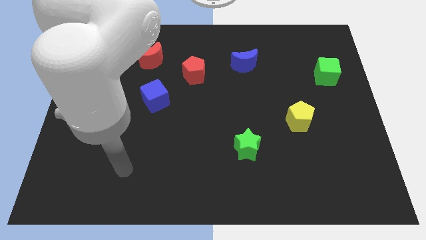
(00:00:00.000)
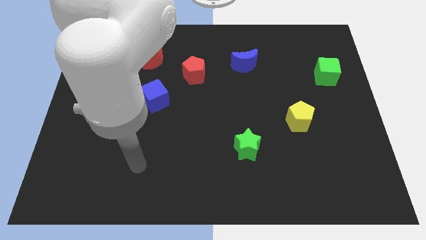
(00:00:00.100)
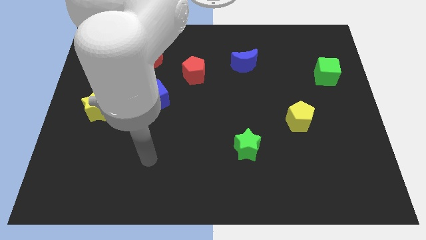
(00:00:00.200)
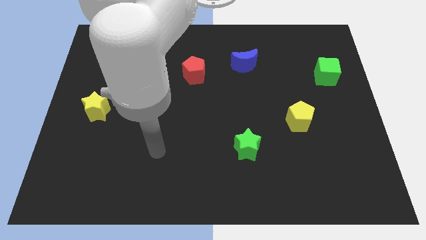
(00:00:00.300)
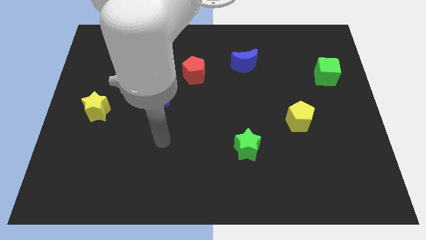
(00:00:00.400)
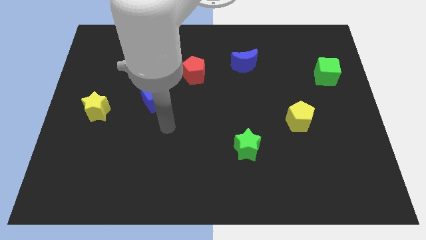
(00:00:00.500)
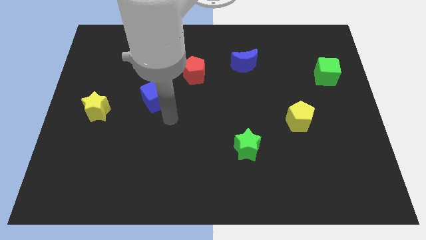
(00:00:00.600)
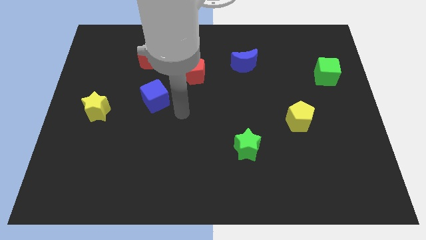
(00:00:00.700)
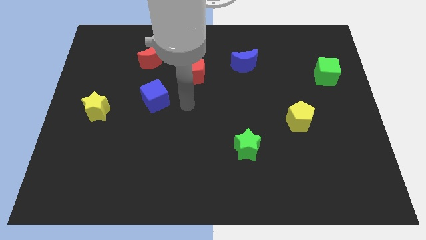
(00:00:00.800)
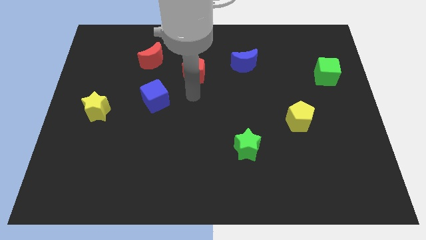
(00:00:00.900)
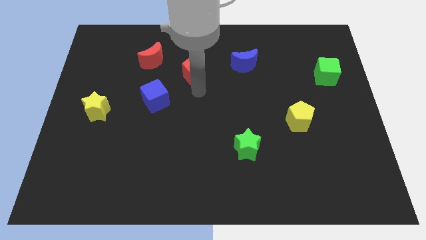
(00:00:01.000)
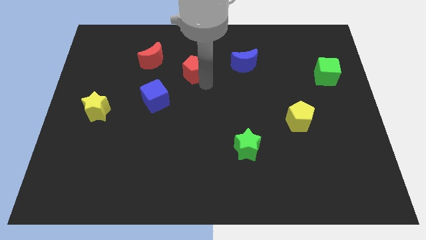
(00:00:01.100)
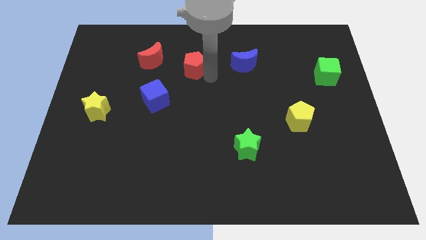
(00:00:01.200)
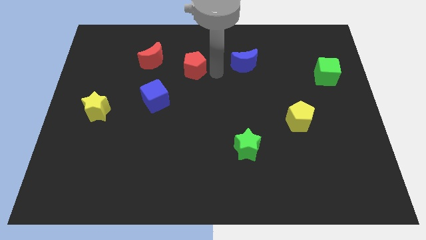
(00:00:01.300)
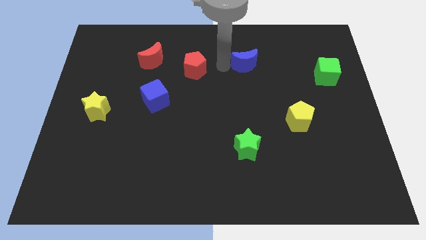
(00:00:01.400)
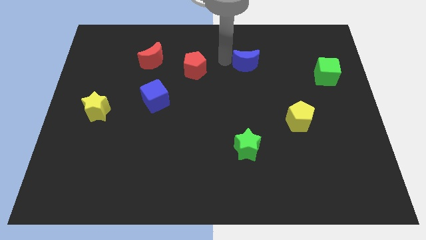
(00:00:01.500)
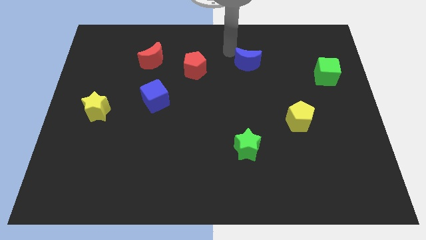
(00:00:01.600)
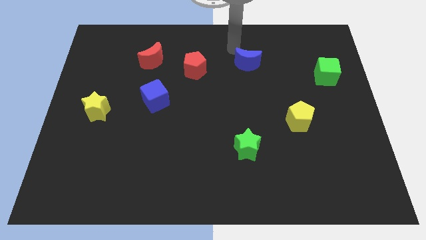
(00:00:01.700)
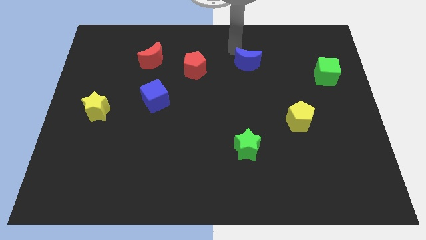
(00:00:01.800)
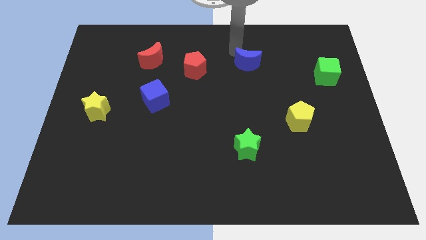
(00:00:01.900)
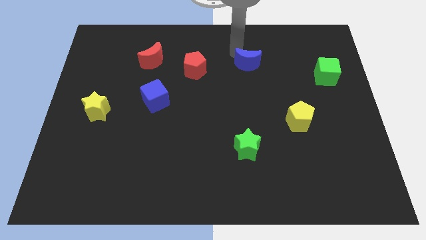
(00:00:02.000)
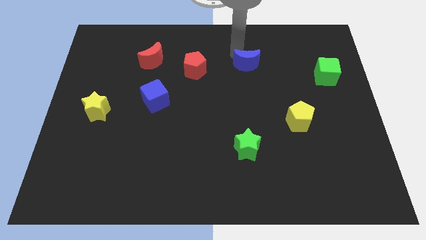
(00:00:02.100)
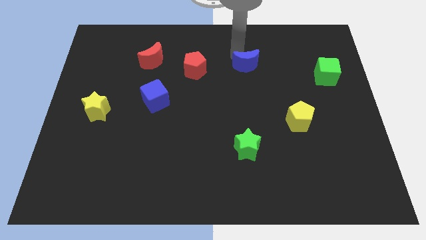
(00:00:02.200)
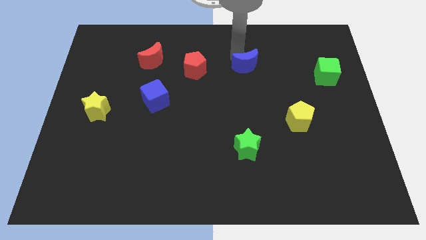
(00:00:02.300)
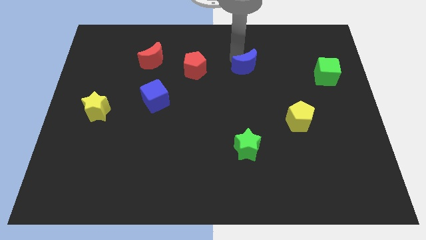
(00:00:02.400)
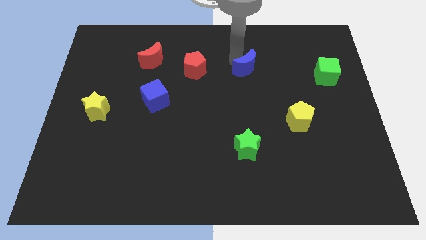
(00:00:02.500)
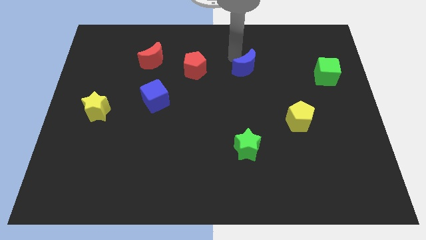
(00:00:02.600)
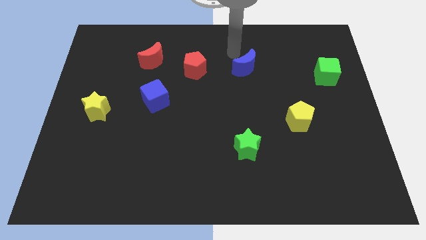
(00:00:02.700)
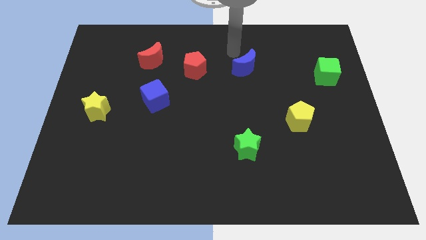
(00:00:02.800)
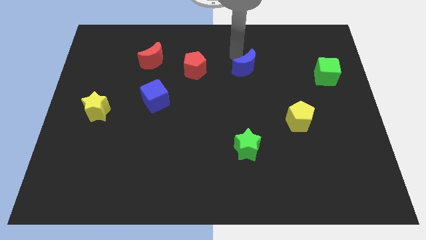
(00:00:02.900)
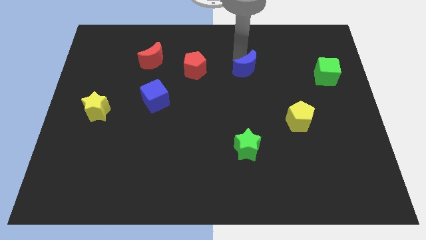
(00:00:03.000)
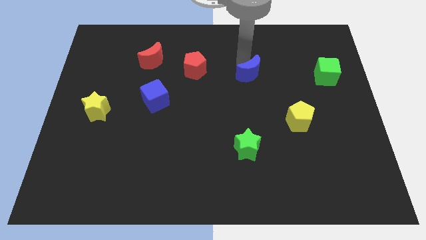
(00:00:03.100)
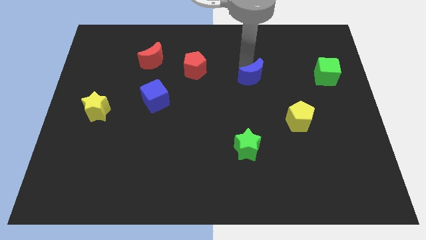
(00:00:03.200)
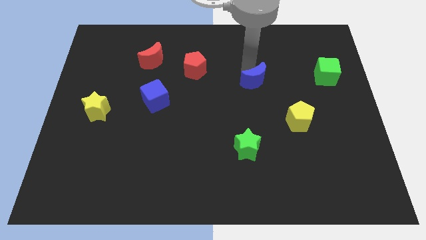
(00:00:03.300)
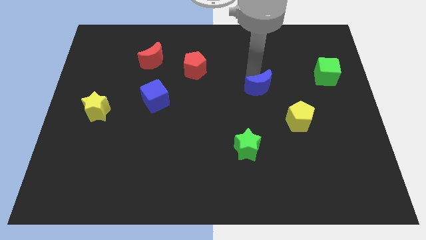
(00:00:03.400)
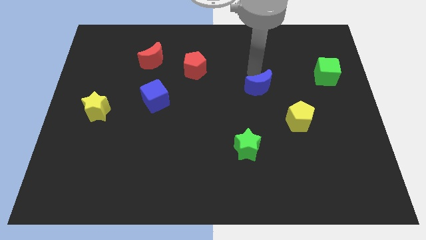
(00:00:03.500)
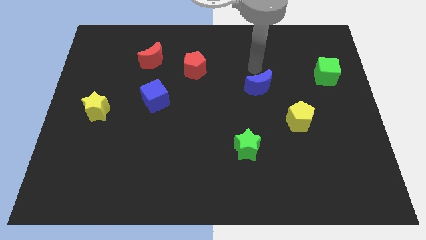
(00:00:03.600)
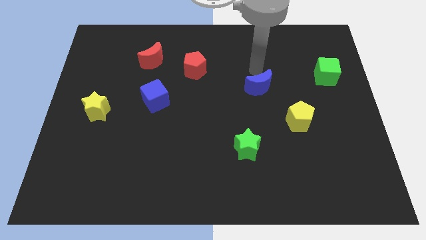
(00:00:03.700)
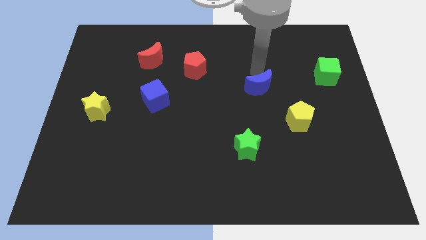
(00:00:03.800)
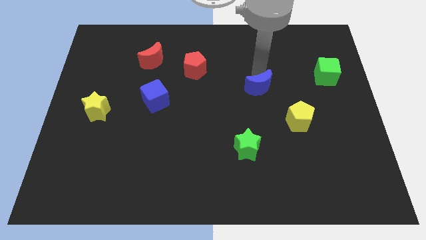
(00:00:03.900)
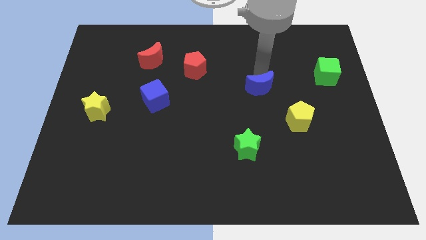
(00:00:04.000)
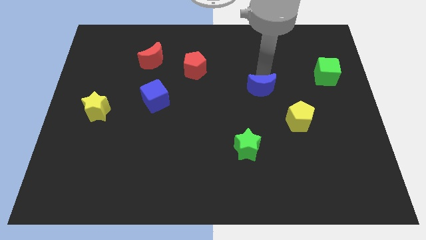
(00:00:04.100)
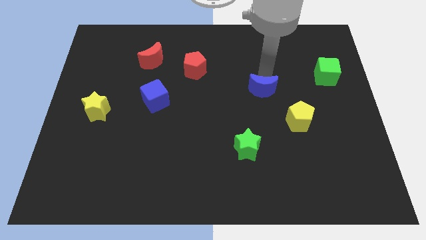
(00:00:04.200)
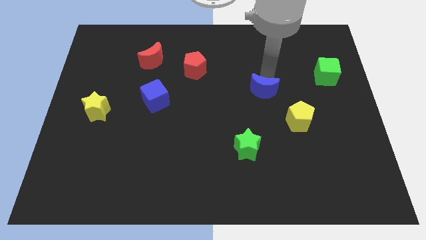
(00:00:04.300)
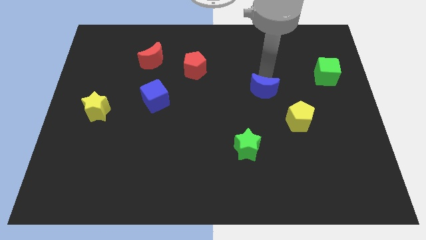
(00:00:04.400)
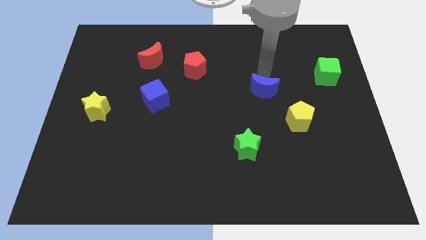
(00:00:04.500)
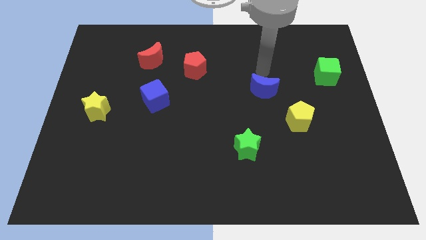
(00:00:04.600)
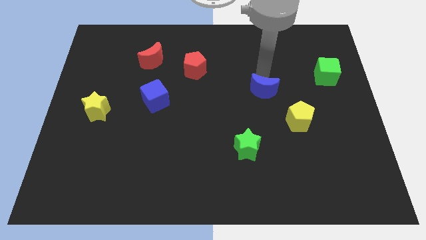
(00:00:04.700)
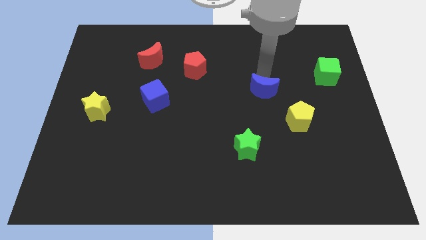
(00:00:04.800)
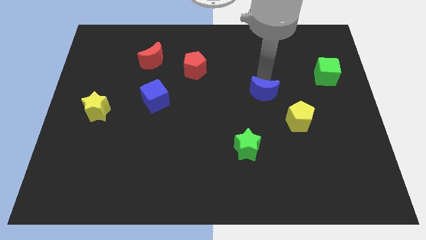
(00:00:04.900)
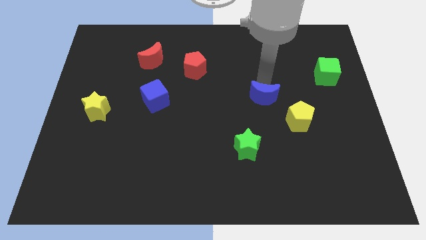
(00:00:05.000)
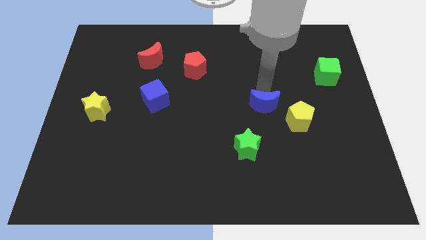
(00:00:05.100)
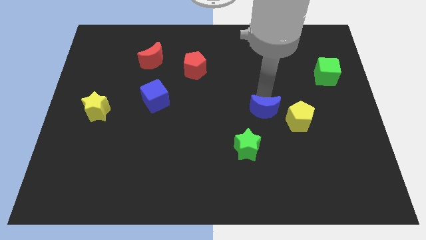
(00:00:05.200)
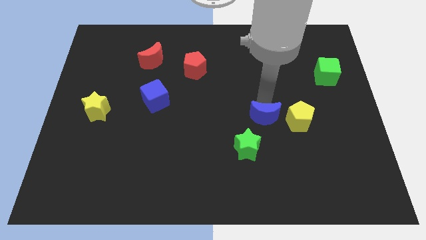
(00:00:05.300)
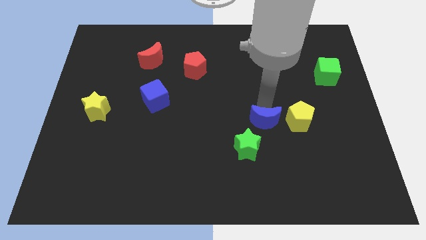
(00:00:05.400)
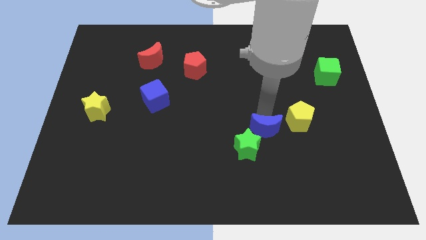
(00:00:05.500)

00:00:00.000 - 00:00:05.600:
move the blue moon downwards

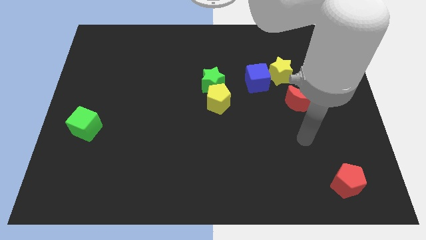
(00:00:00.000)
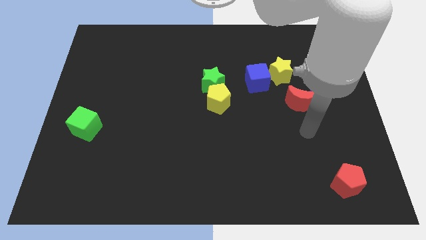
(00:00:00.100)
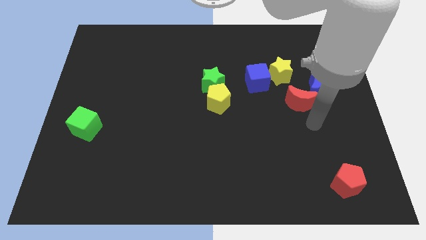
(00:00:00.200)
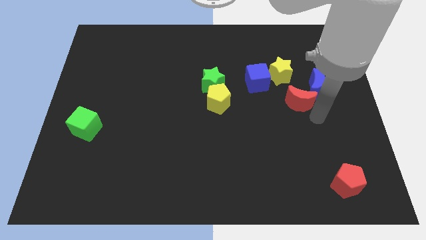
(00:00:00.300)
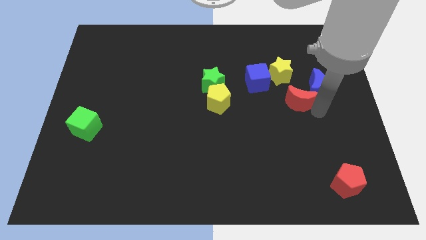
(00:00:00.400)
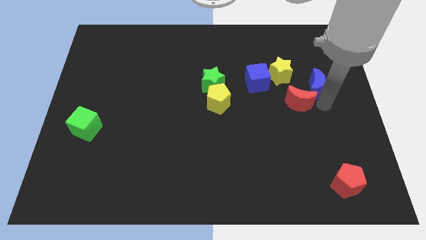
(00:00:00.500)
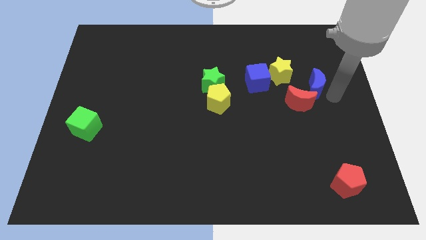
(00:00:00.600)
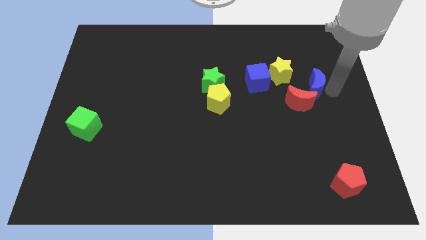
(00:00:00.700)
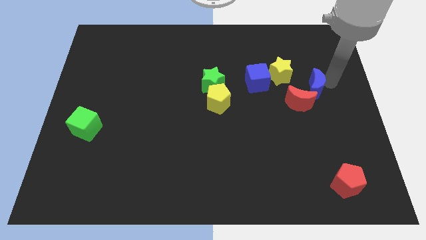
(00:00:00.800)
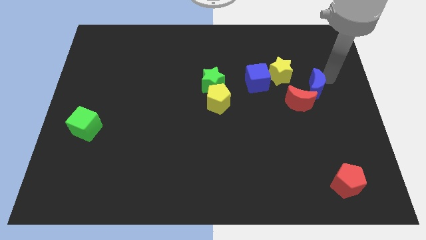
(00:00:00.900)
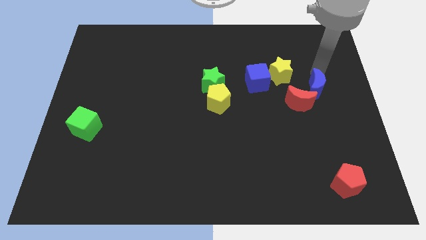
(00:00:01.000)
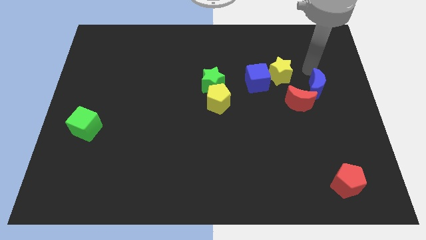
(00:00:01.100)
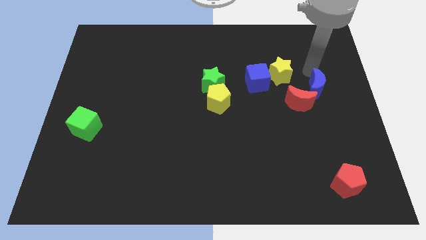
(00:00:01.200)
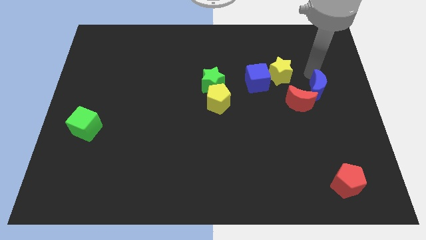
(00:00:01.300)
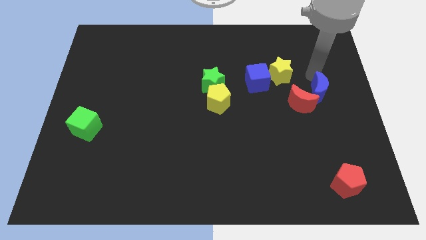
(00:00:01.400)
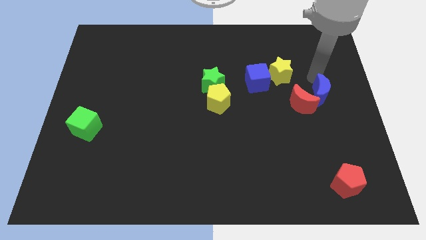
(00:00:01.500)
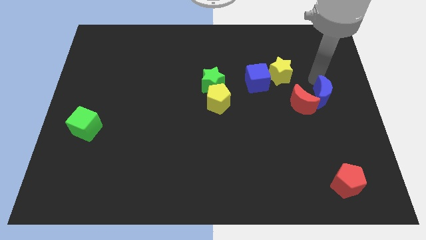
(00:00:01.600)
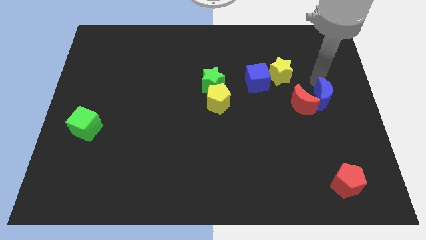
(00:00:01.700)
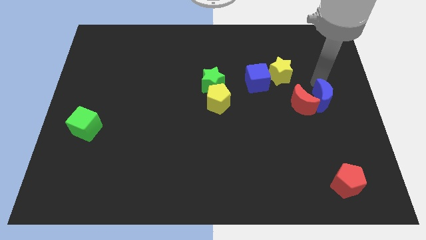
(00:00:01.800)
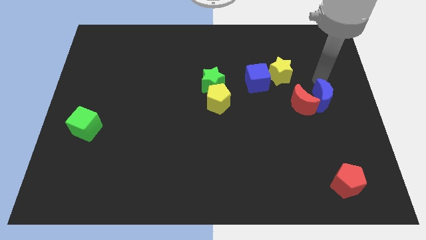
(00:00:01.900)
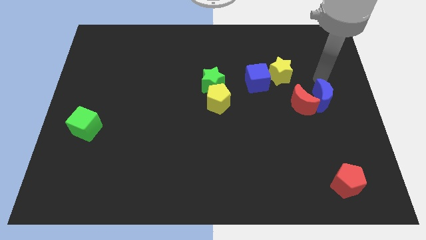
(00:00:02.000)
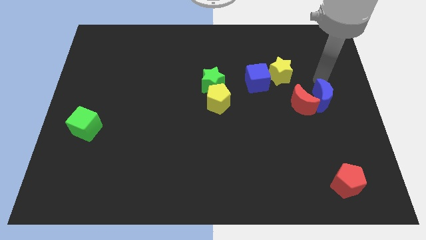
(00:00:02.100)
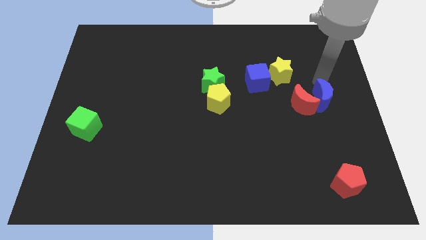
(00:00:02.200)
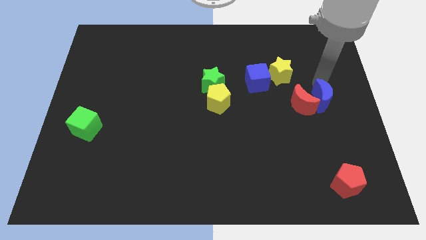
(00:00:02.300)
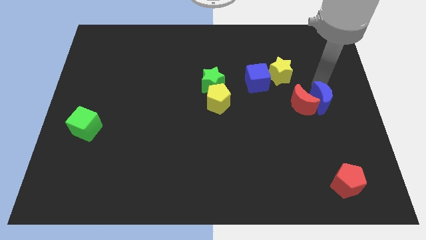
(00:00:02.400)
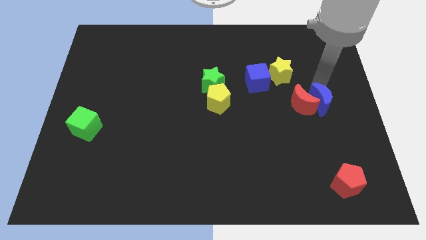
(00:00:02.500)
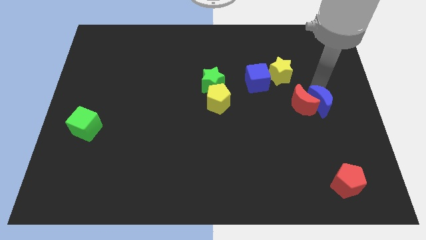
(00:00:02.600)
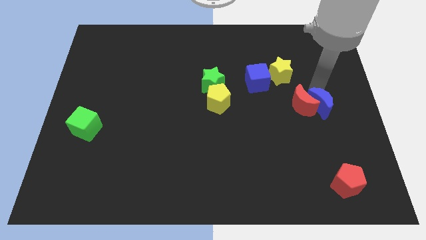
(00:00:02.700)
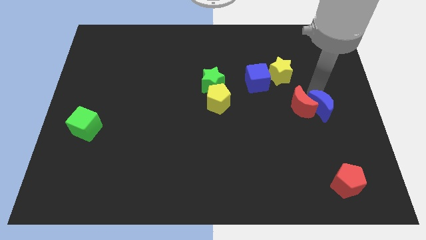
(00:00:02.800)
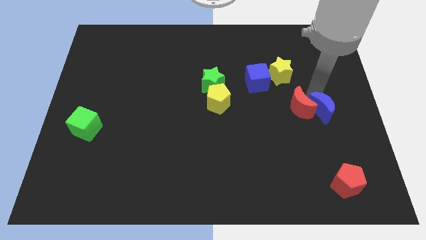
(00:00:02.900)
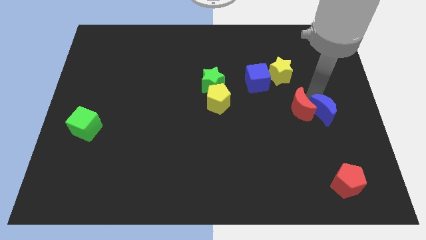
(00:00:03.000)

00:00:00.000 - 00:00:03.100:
slide the blue moon down a bit
